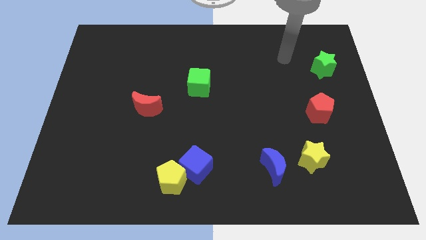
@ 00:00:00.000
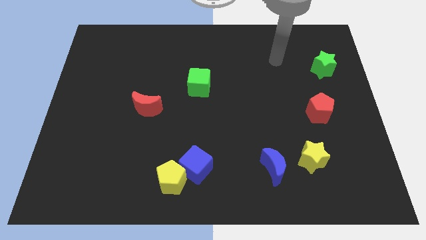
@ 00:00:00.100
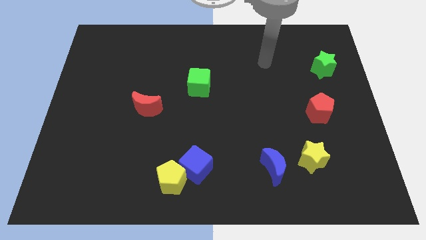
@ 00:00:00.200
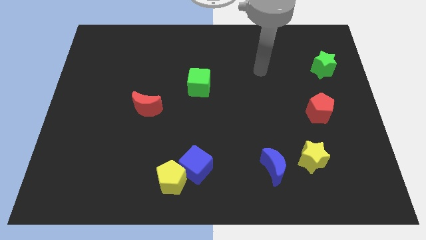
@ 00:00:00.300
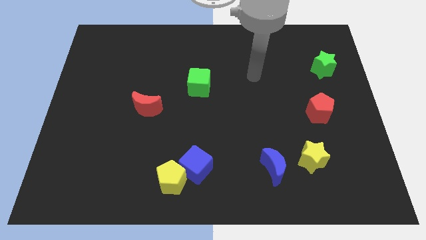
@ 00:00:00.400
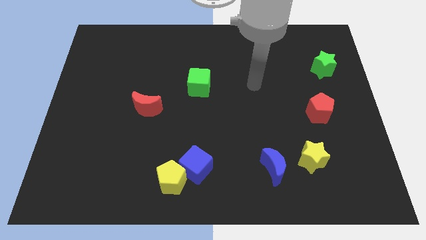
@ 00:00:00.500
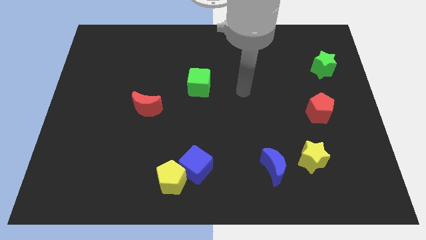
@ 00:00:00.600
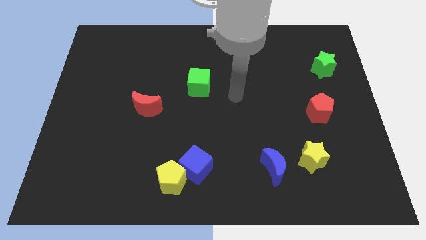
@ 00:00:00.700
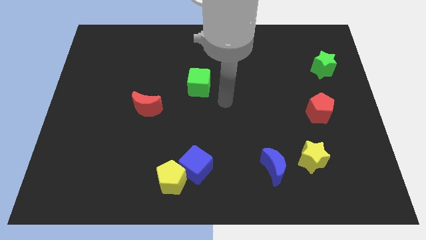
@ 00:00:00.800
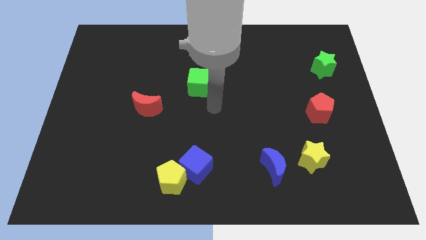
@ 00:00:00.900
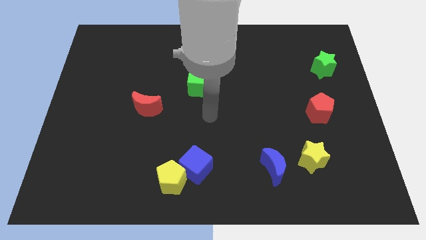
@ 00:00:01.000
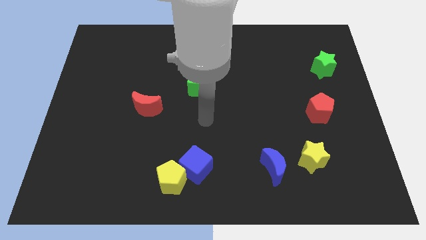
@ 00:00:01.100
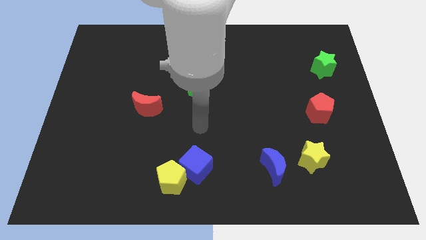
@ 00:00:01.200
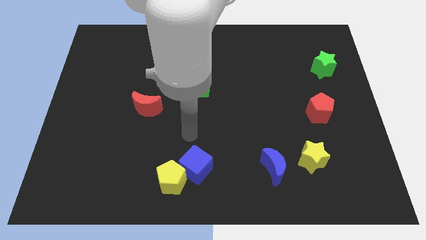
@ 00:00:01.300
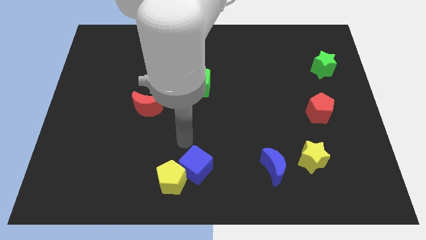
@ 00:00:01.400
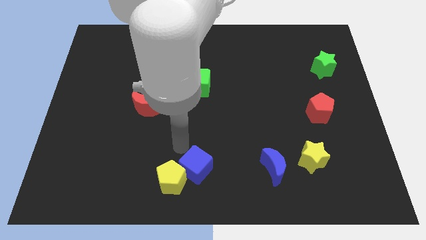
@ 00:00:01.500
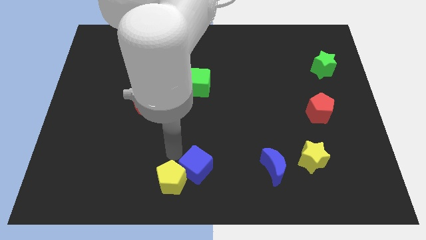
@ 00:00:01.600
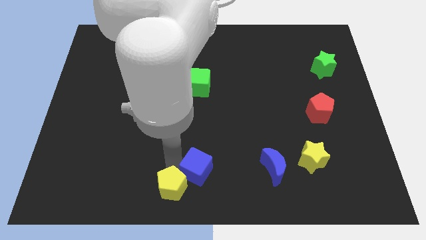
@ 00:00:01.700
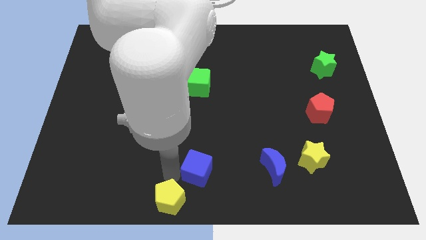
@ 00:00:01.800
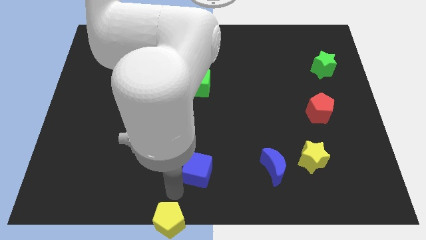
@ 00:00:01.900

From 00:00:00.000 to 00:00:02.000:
move the blue cube away from the yellow pentagon

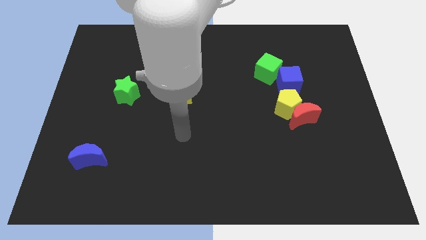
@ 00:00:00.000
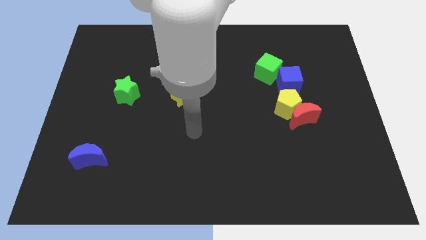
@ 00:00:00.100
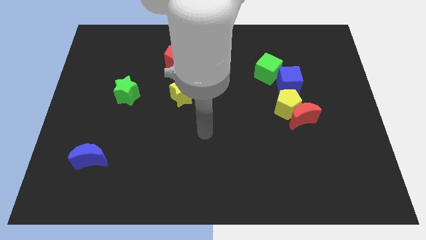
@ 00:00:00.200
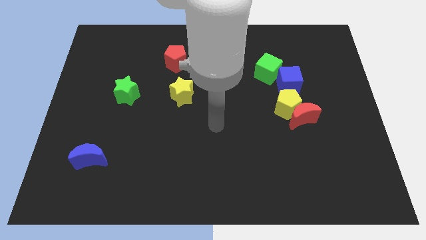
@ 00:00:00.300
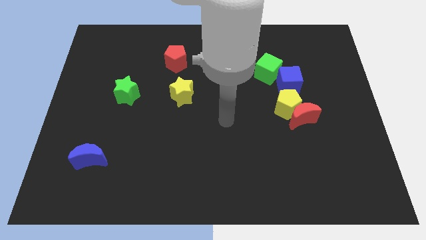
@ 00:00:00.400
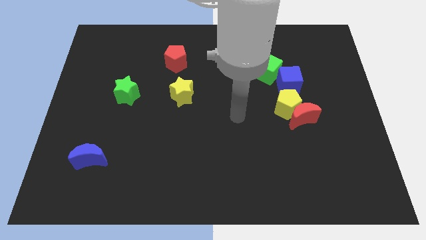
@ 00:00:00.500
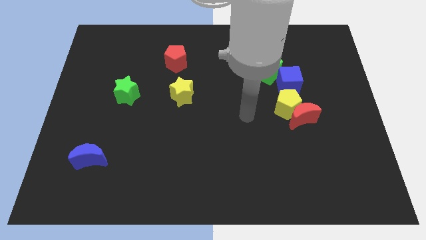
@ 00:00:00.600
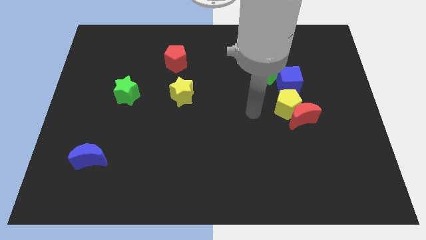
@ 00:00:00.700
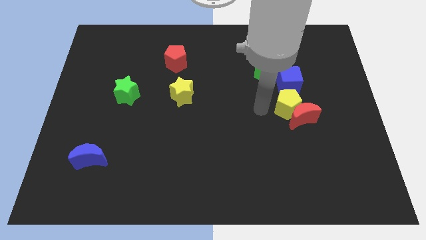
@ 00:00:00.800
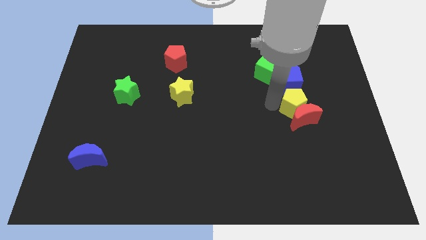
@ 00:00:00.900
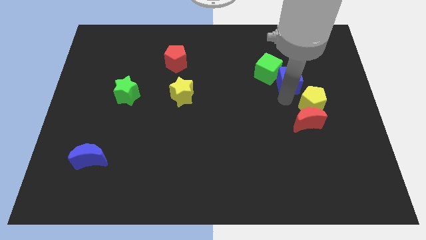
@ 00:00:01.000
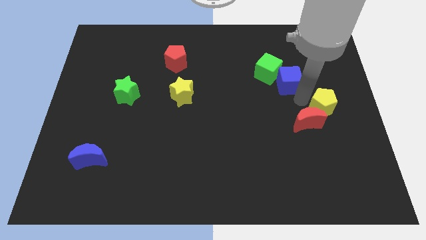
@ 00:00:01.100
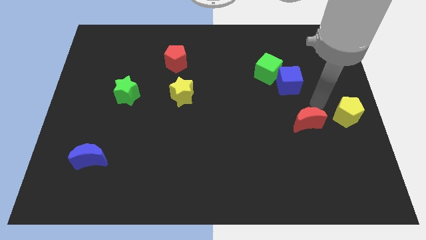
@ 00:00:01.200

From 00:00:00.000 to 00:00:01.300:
separate the red moon from the yellow pentagon

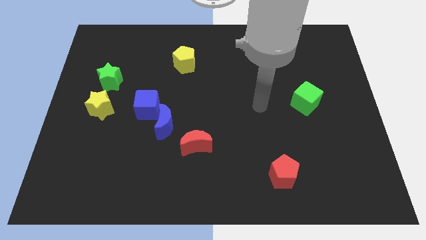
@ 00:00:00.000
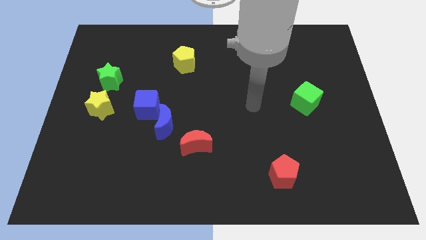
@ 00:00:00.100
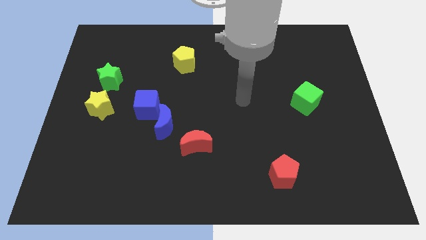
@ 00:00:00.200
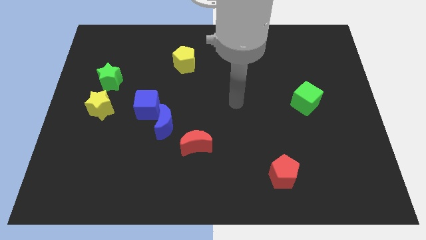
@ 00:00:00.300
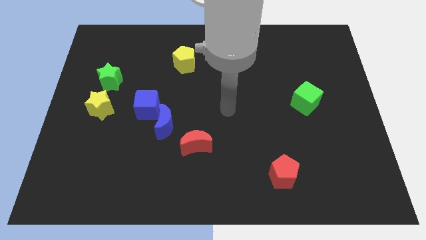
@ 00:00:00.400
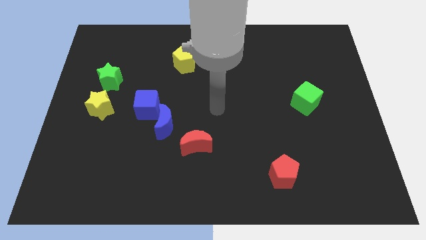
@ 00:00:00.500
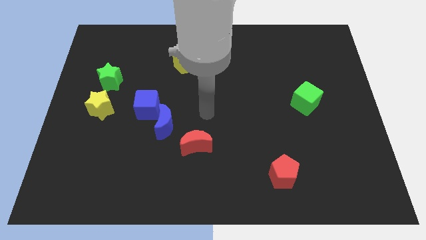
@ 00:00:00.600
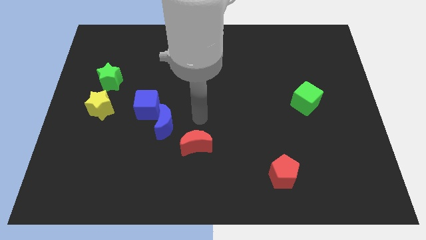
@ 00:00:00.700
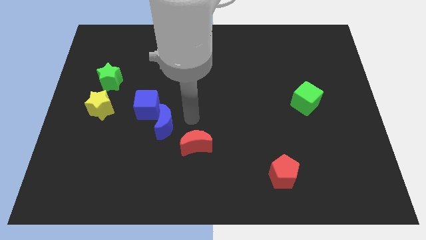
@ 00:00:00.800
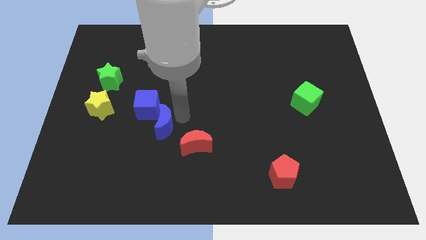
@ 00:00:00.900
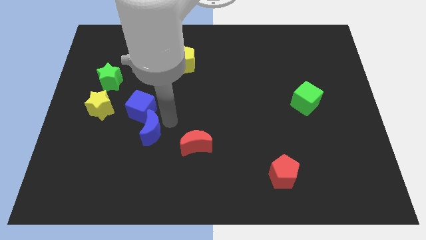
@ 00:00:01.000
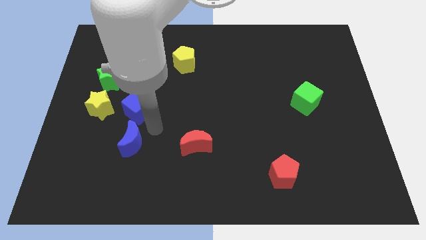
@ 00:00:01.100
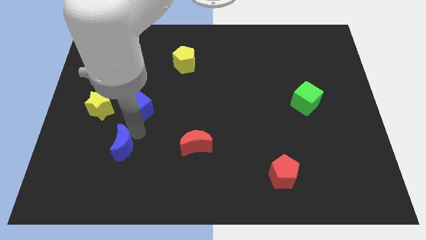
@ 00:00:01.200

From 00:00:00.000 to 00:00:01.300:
separate the blue cube from the blue moon

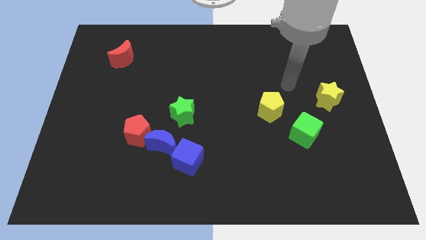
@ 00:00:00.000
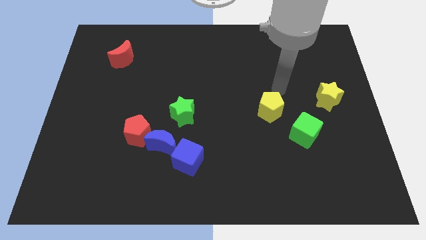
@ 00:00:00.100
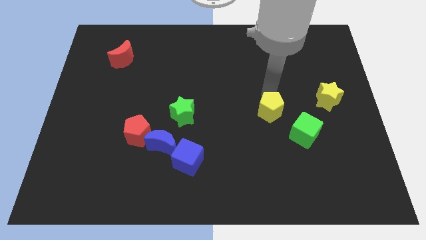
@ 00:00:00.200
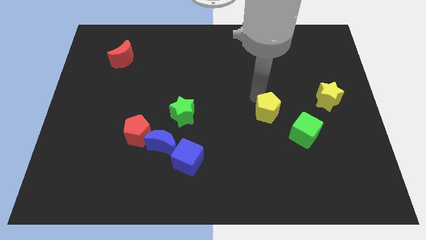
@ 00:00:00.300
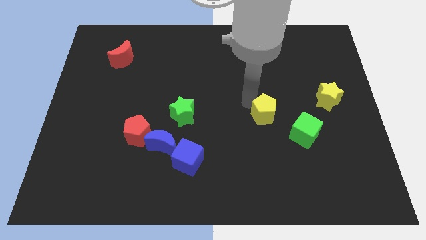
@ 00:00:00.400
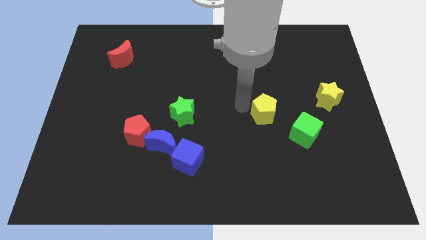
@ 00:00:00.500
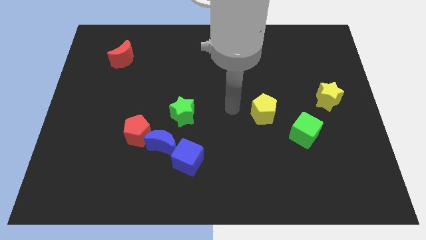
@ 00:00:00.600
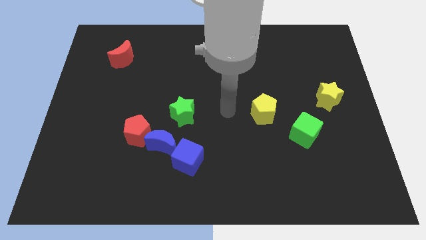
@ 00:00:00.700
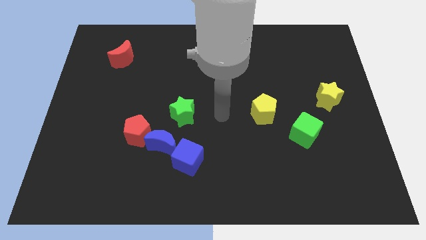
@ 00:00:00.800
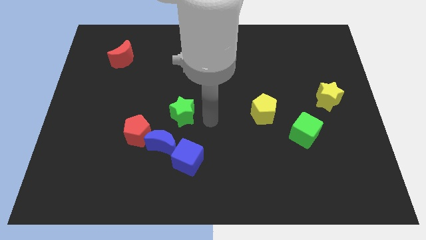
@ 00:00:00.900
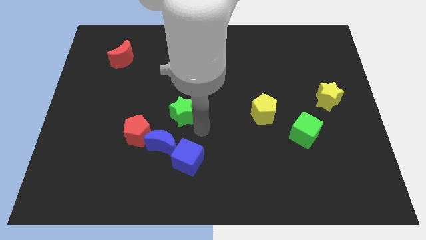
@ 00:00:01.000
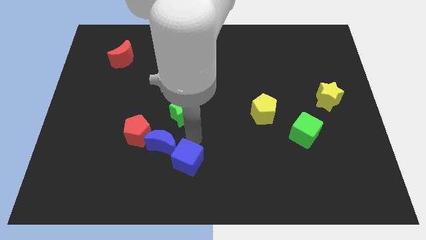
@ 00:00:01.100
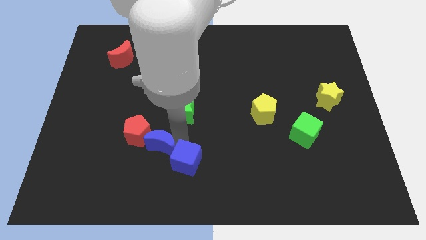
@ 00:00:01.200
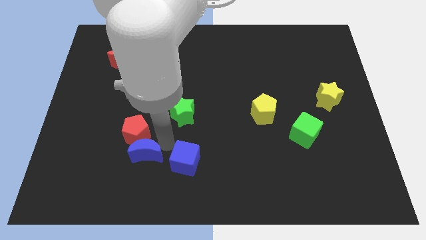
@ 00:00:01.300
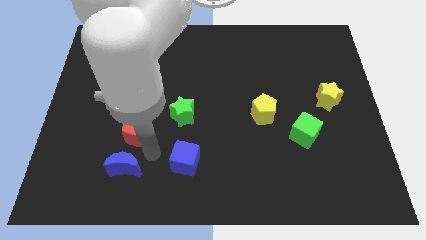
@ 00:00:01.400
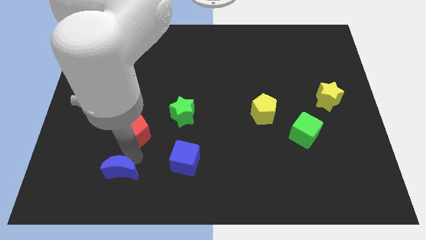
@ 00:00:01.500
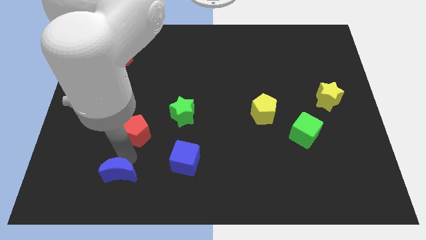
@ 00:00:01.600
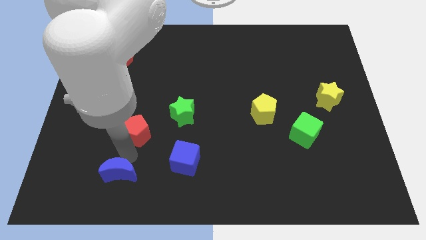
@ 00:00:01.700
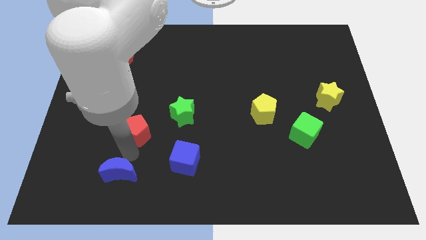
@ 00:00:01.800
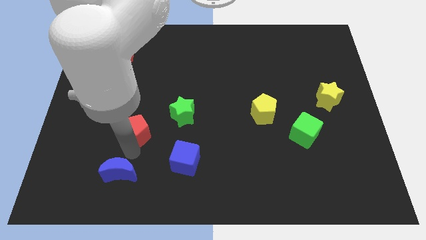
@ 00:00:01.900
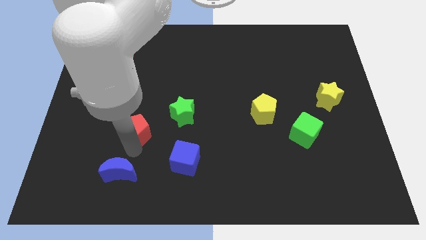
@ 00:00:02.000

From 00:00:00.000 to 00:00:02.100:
move the red pentagon away from the blue moon

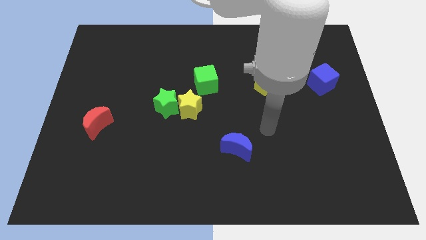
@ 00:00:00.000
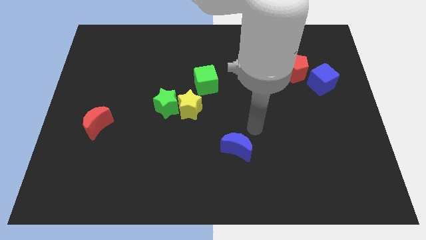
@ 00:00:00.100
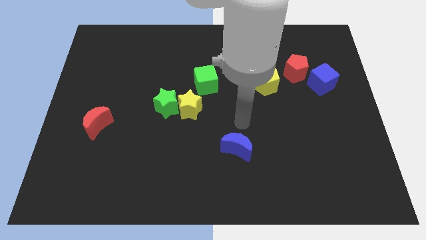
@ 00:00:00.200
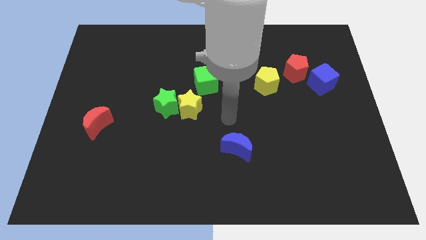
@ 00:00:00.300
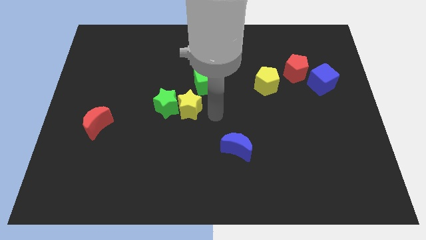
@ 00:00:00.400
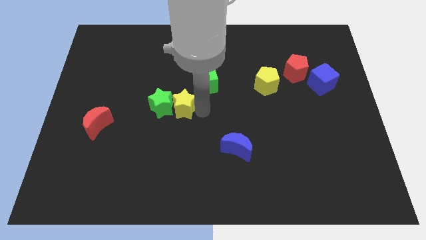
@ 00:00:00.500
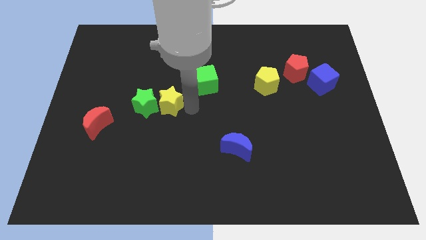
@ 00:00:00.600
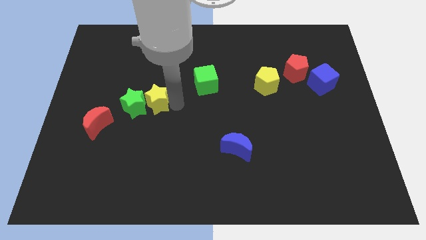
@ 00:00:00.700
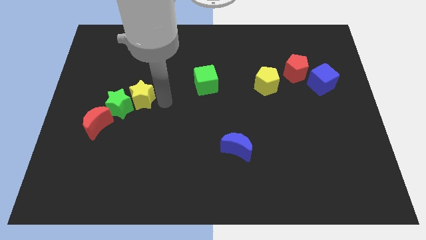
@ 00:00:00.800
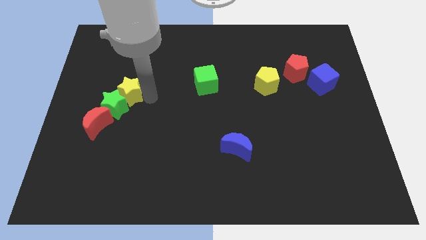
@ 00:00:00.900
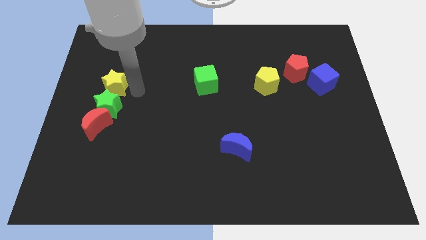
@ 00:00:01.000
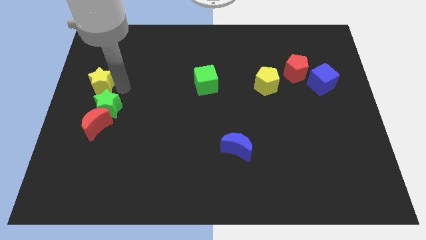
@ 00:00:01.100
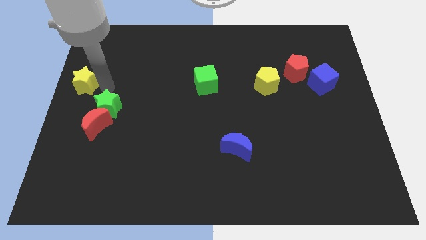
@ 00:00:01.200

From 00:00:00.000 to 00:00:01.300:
separate the green star from the yellow star

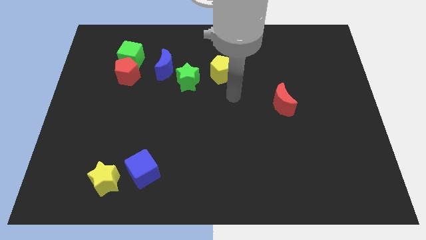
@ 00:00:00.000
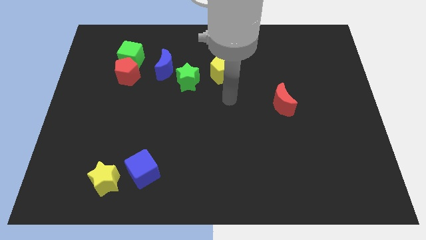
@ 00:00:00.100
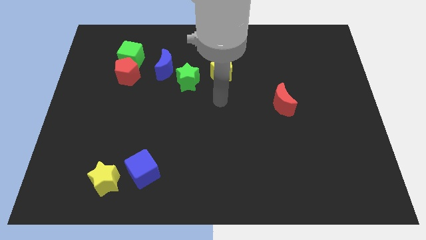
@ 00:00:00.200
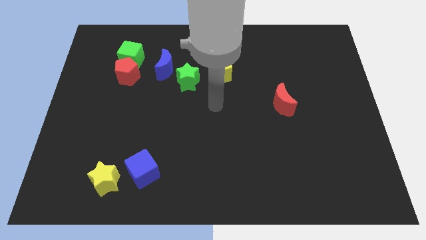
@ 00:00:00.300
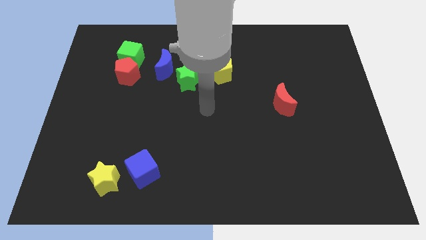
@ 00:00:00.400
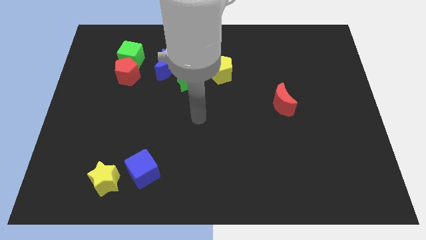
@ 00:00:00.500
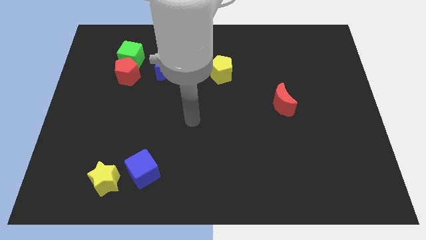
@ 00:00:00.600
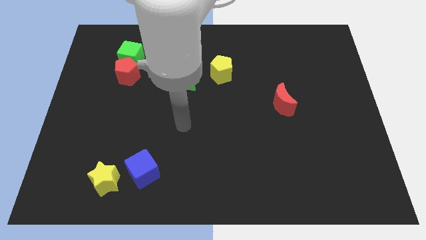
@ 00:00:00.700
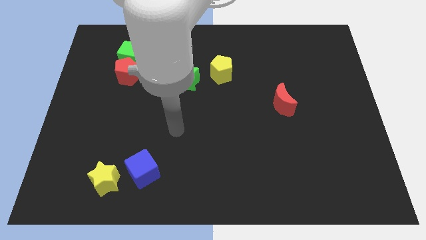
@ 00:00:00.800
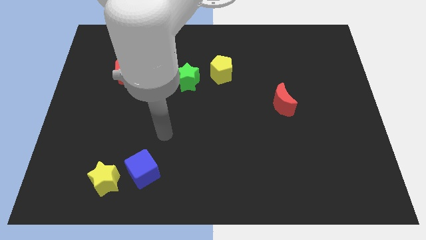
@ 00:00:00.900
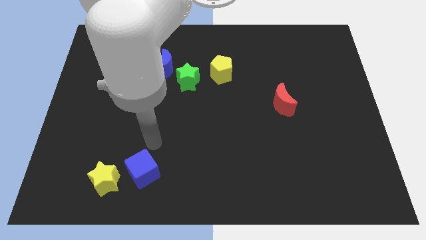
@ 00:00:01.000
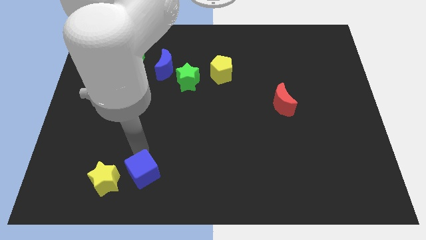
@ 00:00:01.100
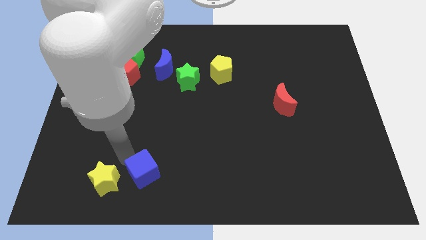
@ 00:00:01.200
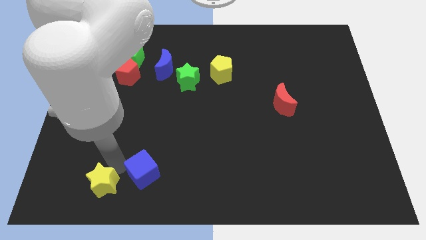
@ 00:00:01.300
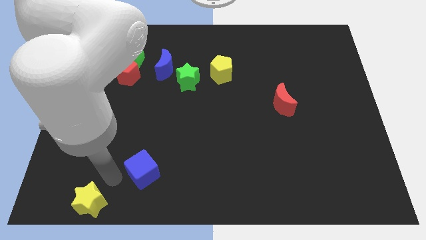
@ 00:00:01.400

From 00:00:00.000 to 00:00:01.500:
move the blue cube away from the yellow star
